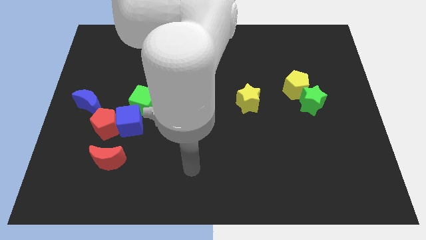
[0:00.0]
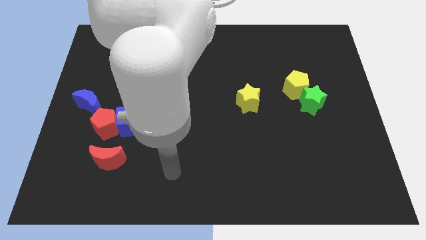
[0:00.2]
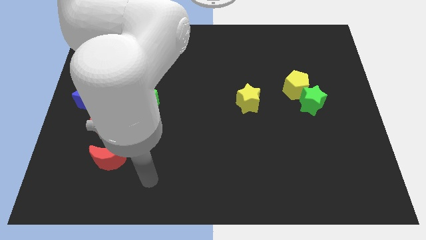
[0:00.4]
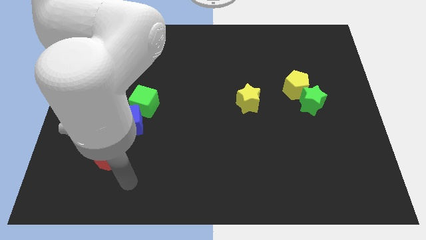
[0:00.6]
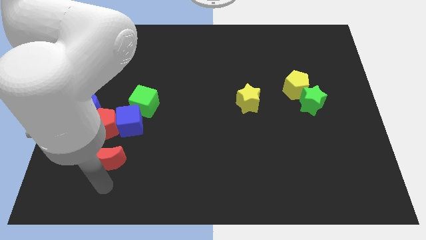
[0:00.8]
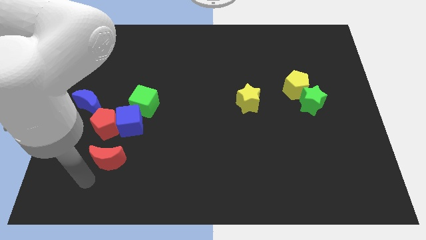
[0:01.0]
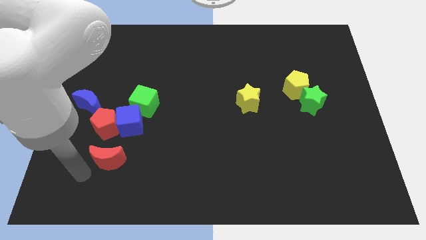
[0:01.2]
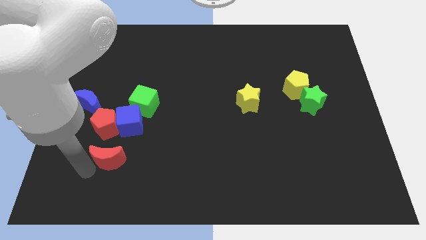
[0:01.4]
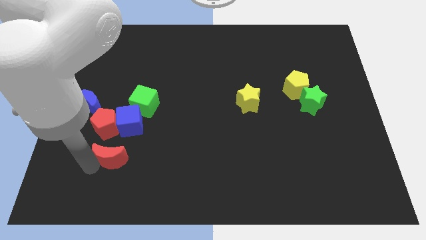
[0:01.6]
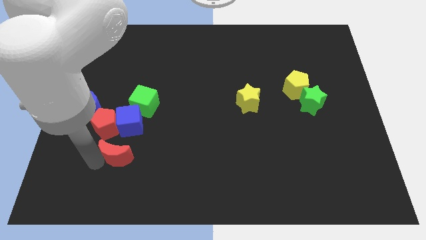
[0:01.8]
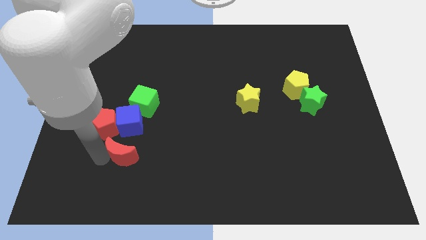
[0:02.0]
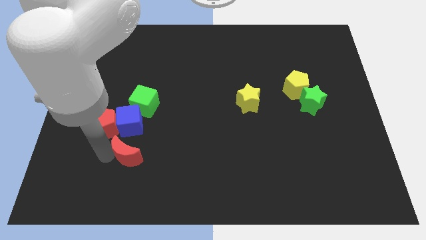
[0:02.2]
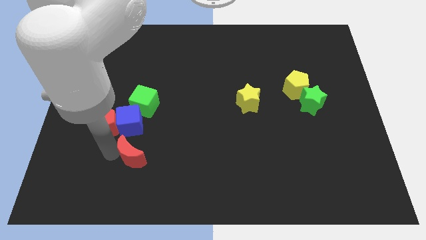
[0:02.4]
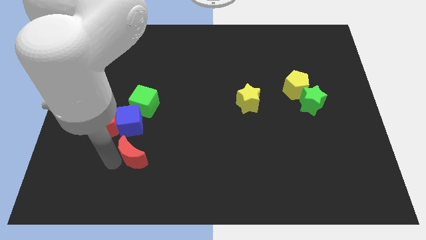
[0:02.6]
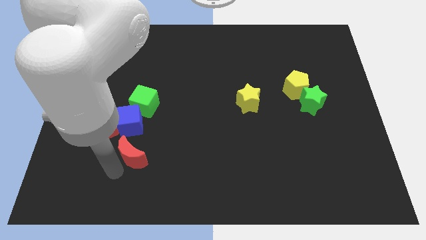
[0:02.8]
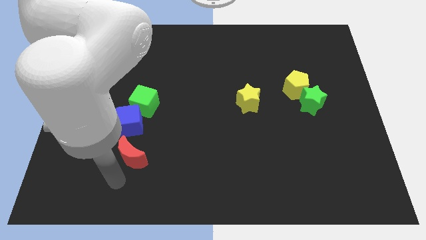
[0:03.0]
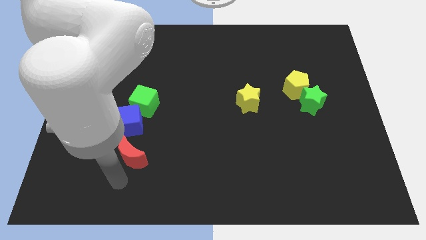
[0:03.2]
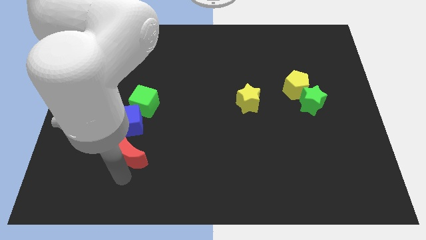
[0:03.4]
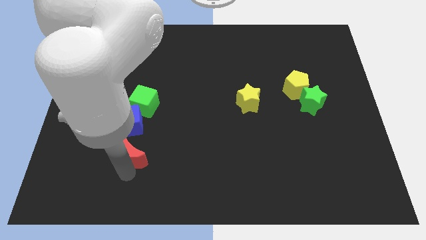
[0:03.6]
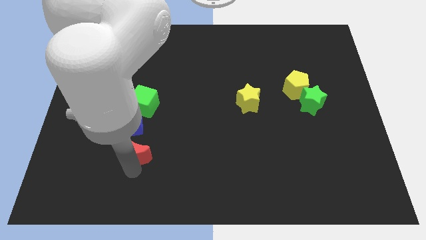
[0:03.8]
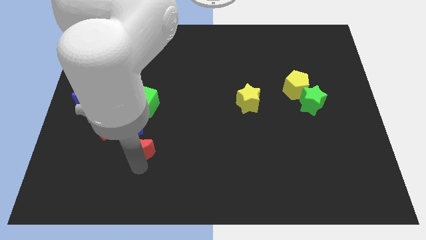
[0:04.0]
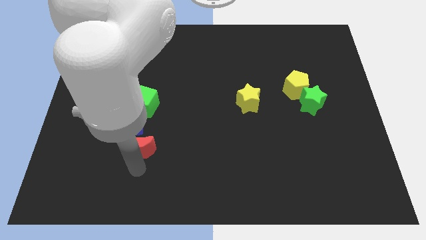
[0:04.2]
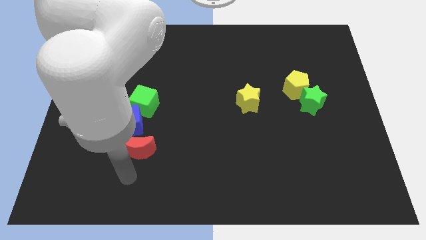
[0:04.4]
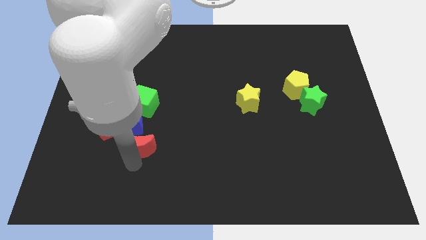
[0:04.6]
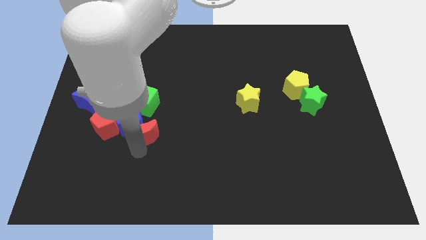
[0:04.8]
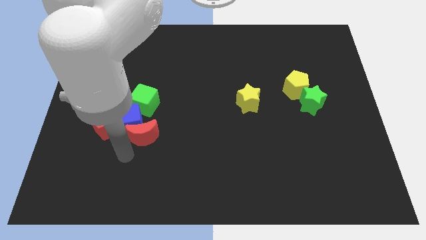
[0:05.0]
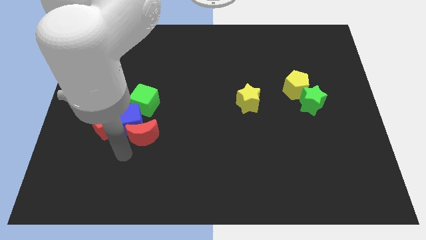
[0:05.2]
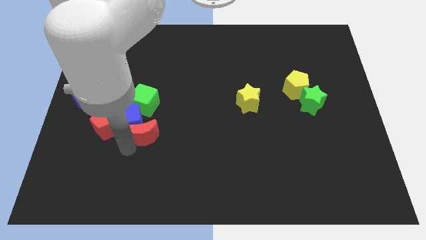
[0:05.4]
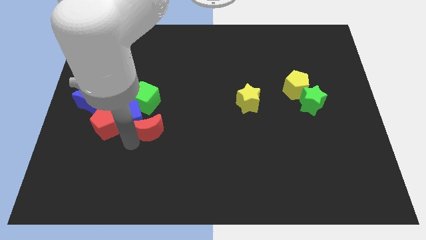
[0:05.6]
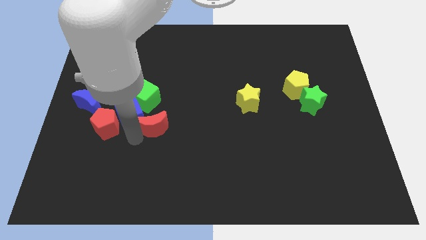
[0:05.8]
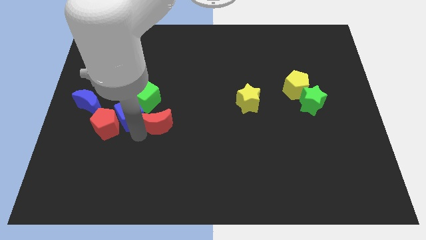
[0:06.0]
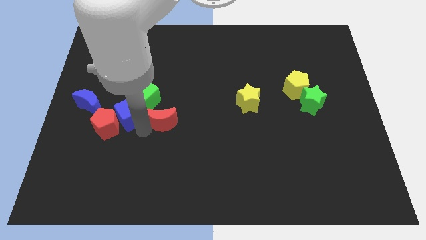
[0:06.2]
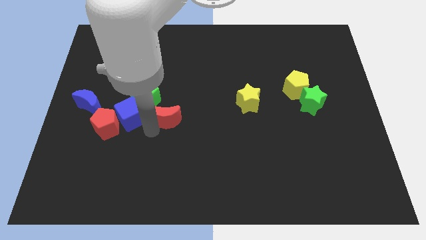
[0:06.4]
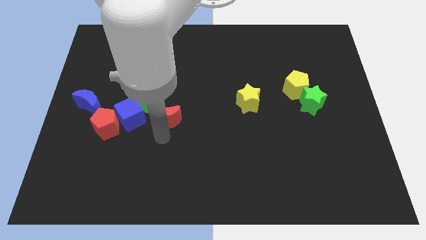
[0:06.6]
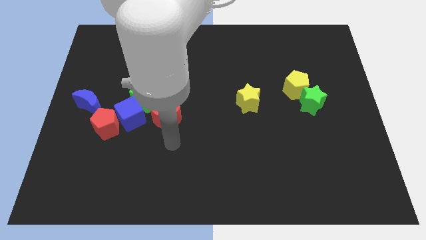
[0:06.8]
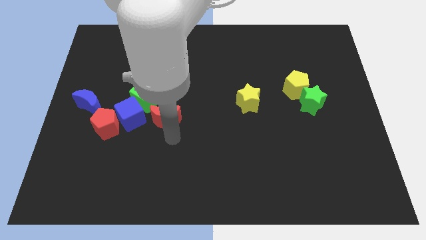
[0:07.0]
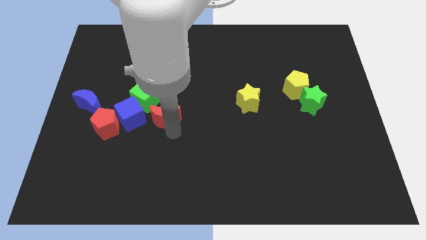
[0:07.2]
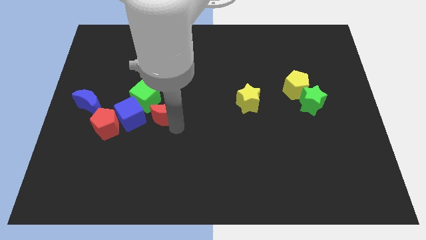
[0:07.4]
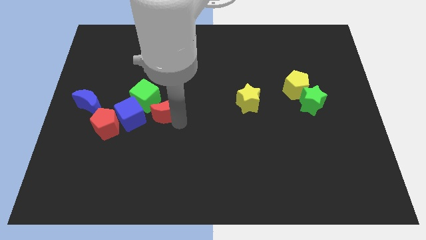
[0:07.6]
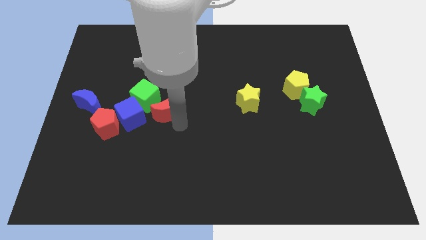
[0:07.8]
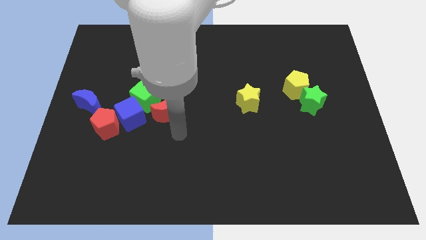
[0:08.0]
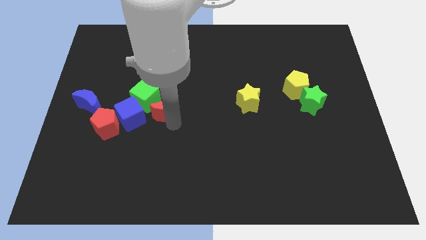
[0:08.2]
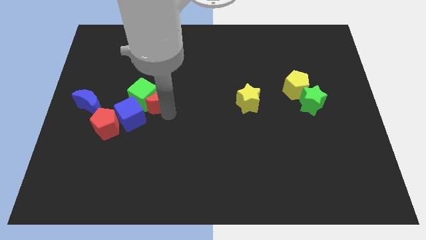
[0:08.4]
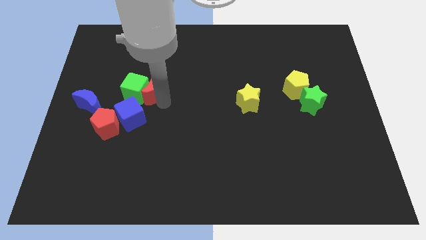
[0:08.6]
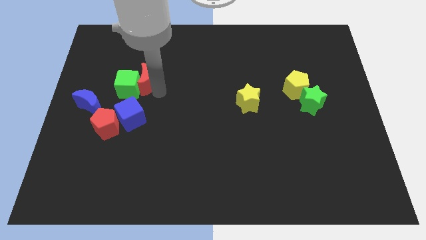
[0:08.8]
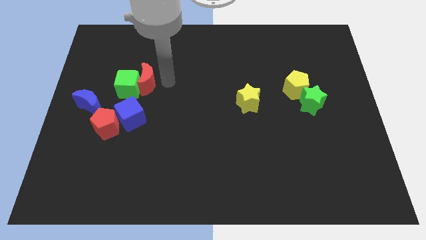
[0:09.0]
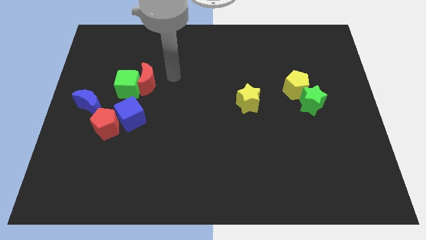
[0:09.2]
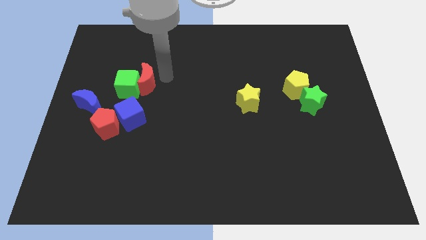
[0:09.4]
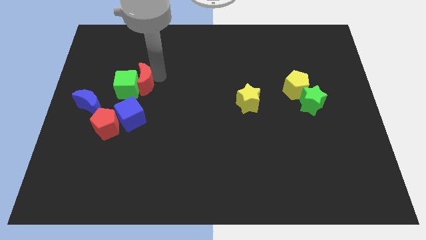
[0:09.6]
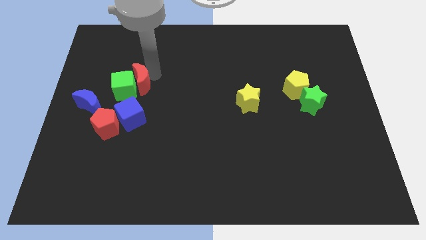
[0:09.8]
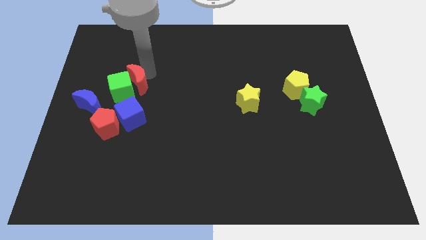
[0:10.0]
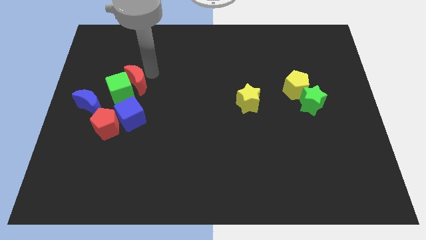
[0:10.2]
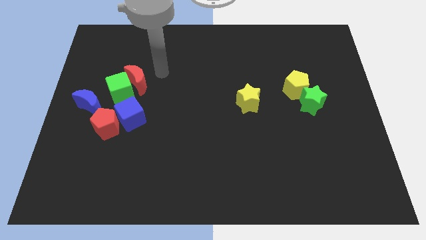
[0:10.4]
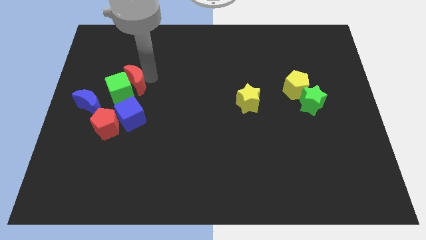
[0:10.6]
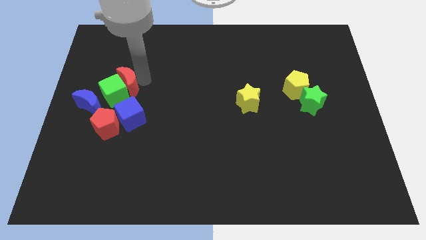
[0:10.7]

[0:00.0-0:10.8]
put the red moon to the top of the red pentagon

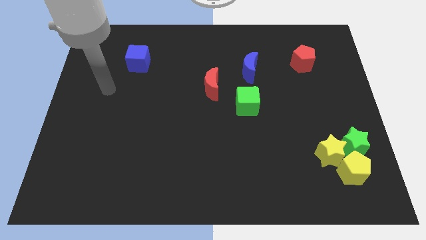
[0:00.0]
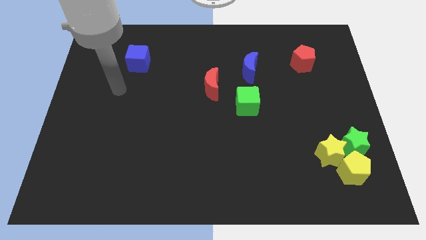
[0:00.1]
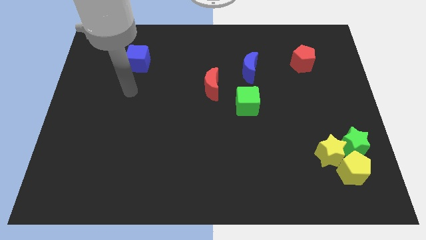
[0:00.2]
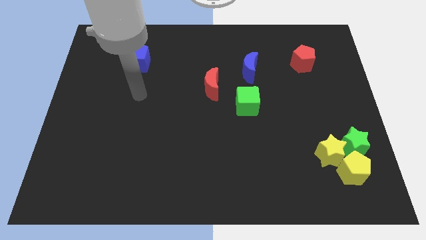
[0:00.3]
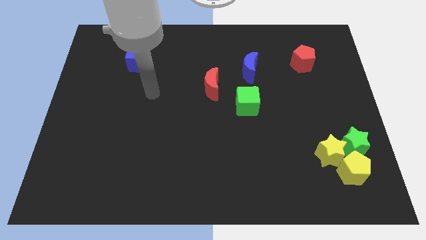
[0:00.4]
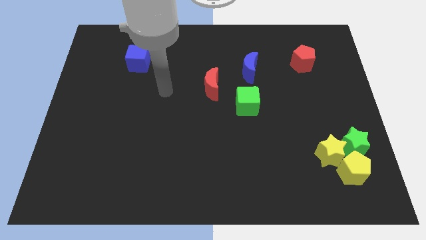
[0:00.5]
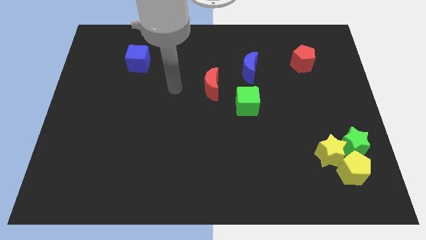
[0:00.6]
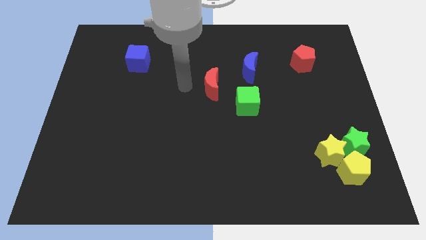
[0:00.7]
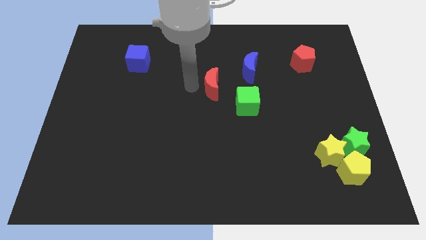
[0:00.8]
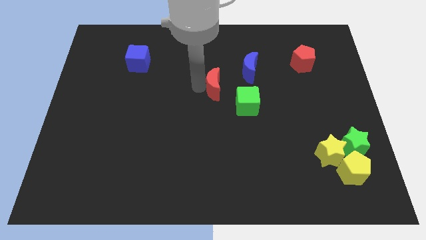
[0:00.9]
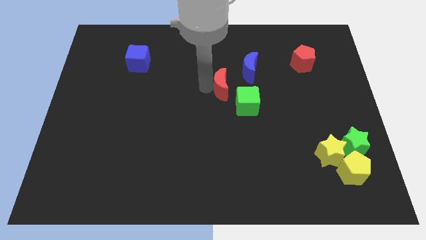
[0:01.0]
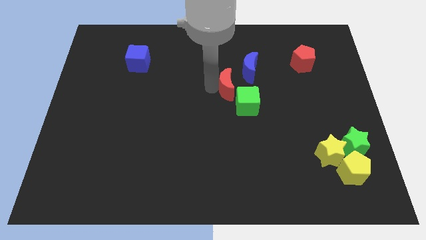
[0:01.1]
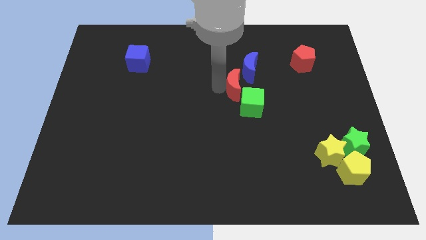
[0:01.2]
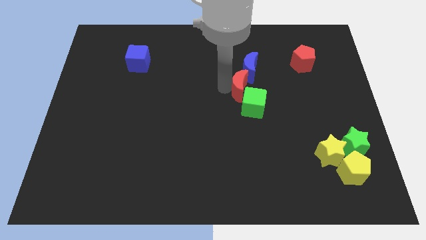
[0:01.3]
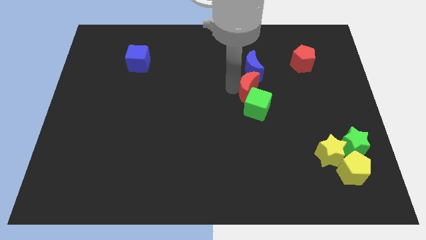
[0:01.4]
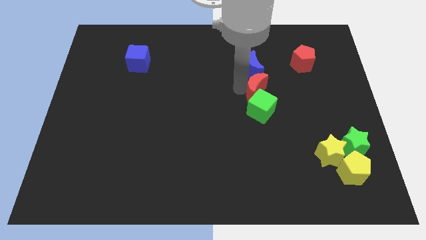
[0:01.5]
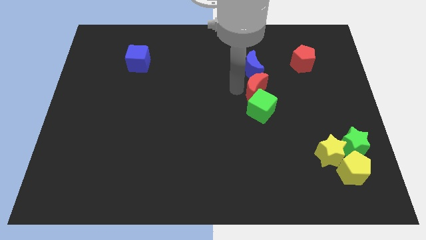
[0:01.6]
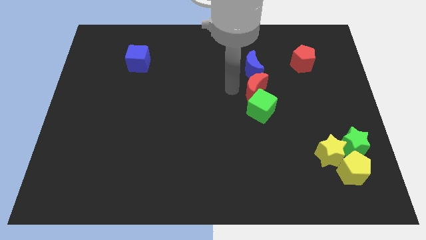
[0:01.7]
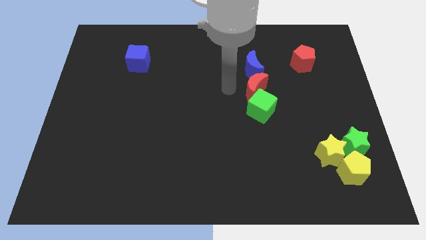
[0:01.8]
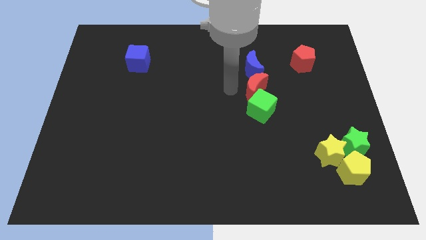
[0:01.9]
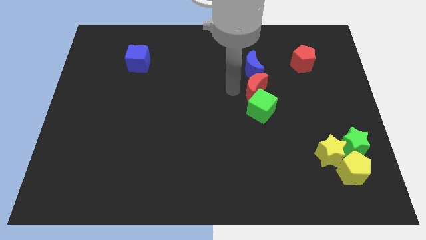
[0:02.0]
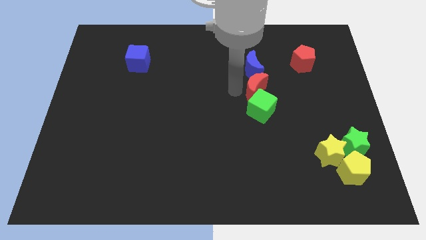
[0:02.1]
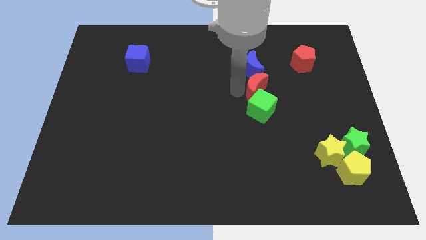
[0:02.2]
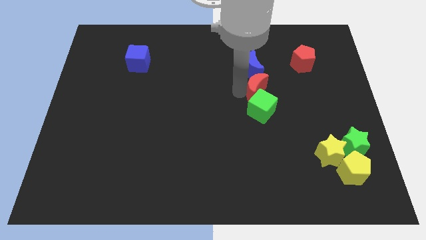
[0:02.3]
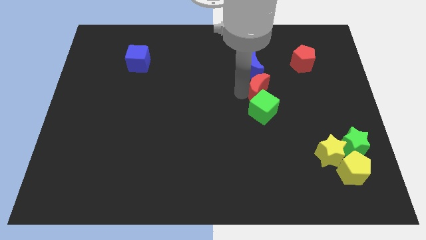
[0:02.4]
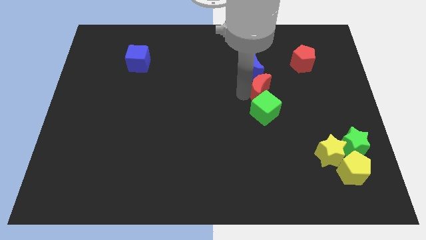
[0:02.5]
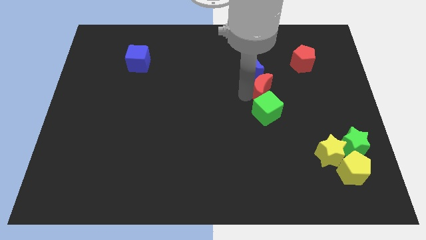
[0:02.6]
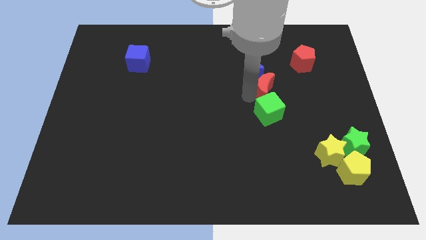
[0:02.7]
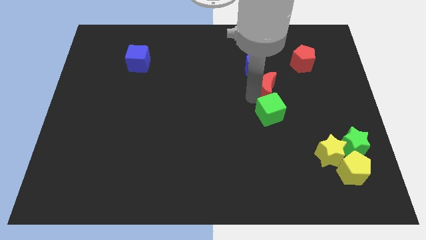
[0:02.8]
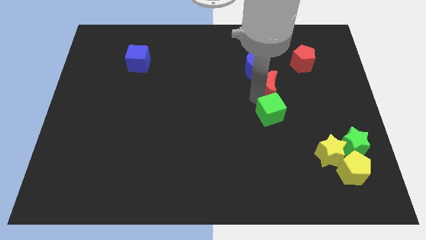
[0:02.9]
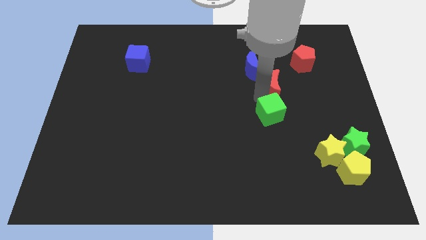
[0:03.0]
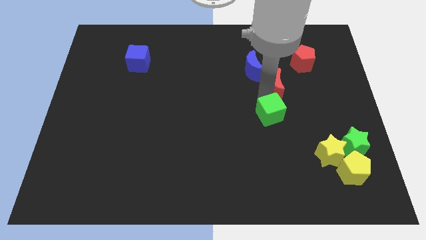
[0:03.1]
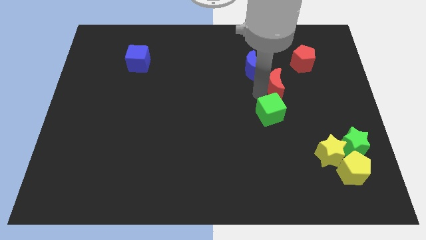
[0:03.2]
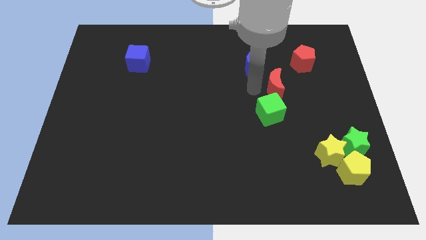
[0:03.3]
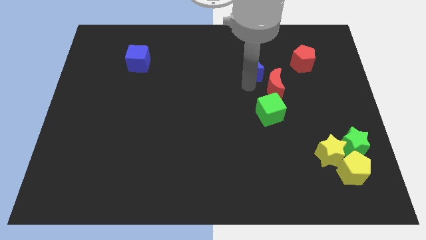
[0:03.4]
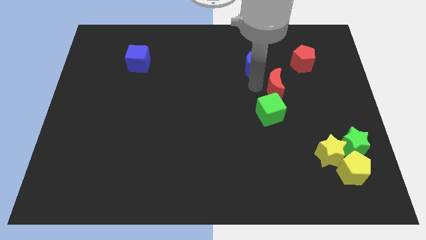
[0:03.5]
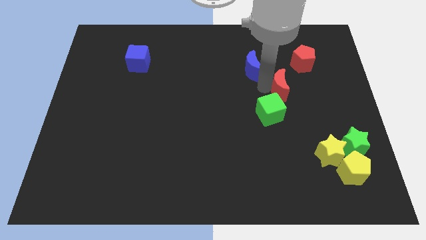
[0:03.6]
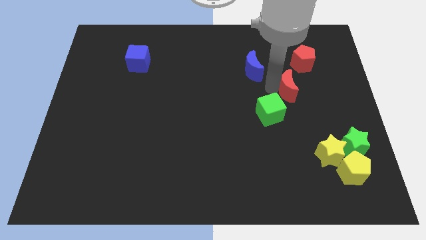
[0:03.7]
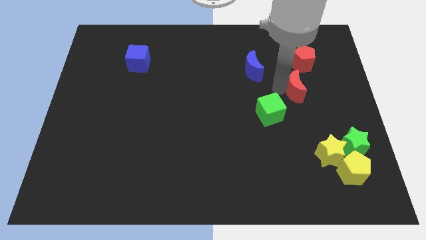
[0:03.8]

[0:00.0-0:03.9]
put the red moon to the bottom of the red pentagon
